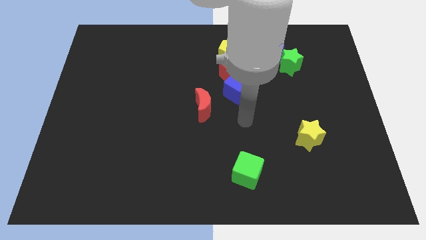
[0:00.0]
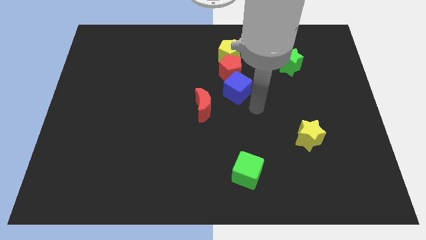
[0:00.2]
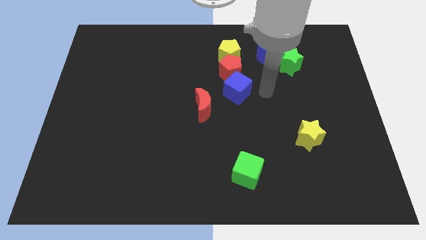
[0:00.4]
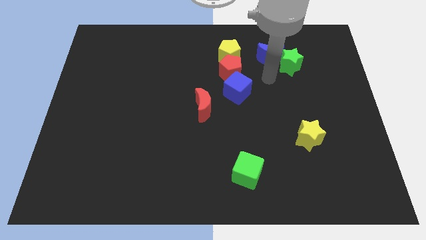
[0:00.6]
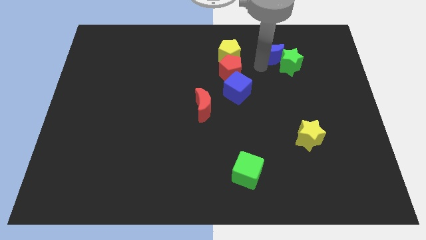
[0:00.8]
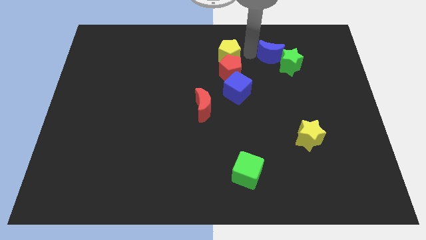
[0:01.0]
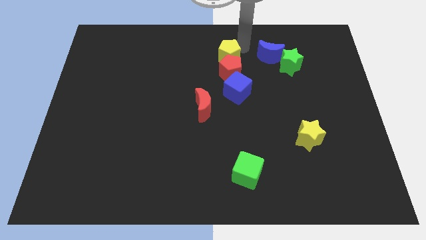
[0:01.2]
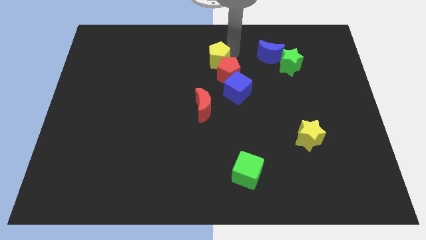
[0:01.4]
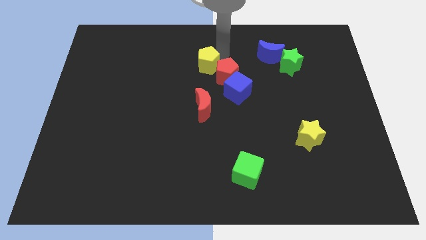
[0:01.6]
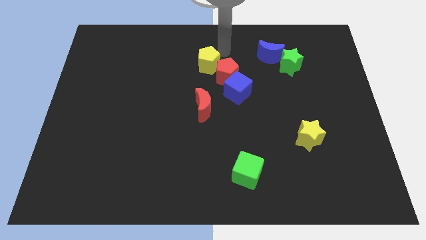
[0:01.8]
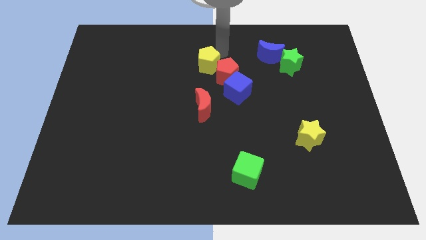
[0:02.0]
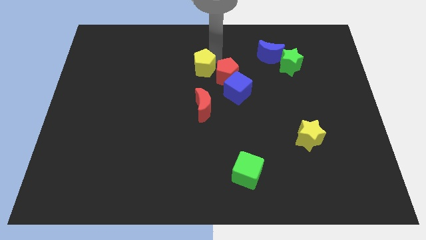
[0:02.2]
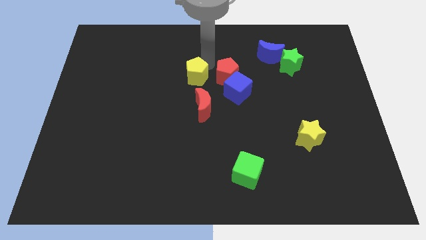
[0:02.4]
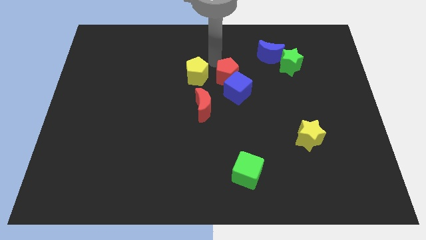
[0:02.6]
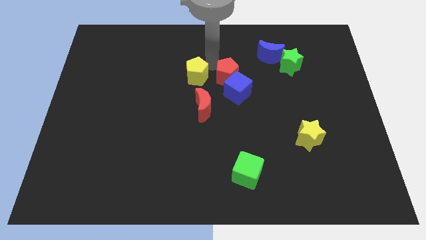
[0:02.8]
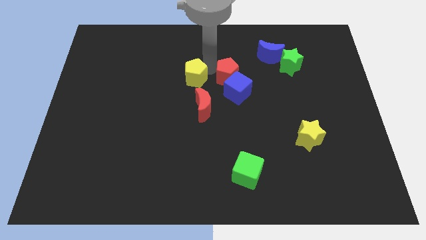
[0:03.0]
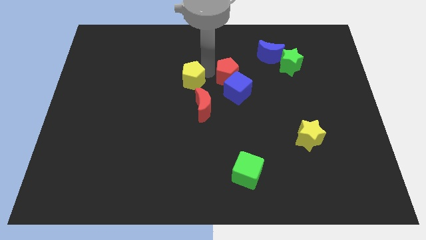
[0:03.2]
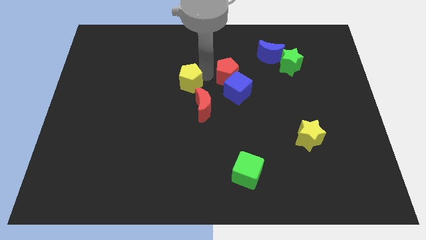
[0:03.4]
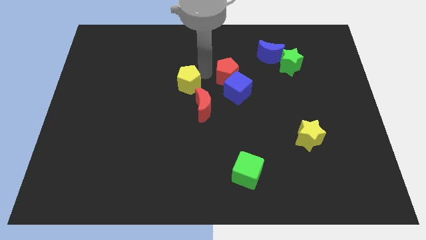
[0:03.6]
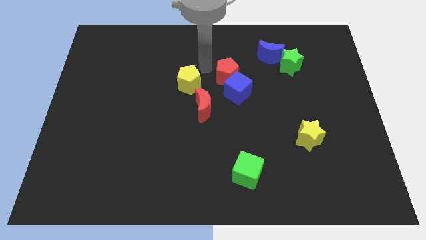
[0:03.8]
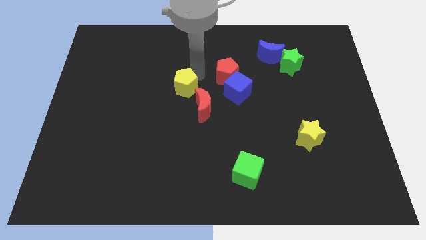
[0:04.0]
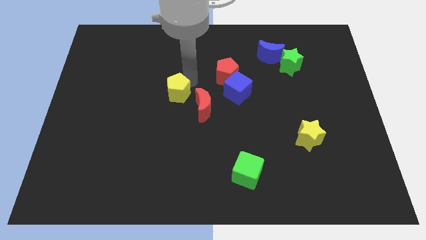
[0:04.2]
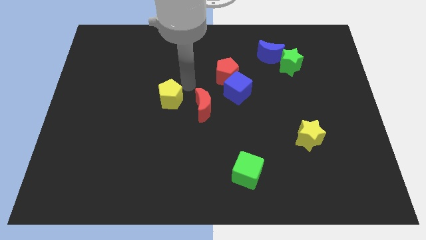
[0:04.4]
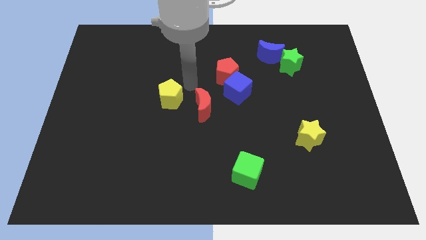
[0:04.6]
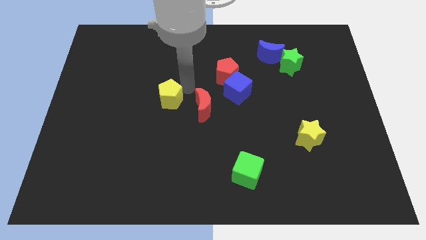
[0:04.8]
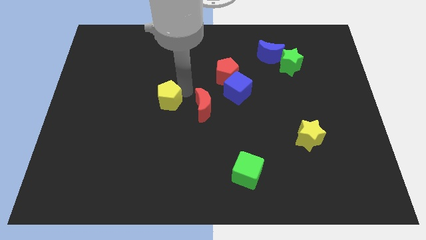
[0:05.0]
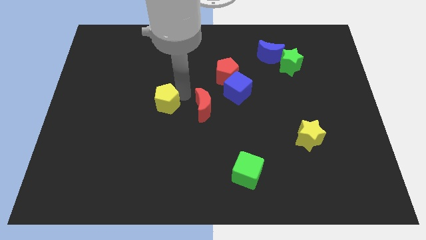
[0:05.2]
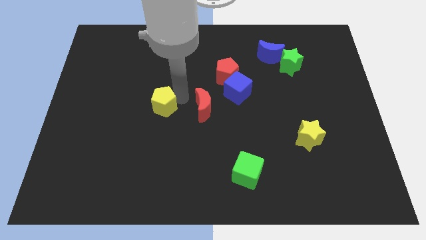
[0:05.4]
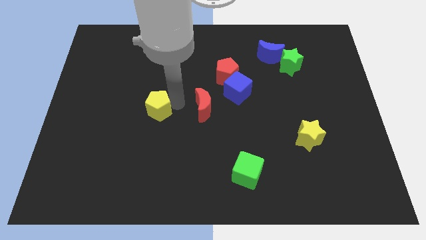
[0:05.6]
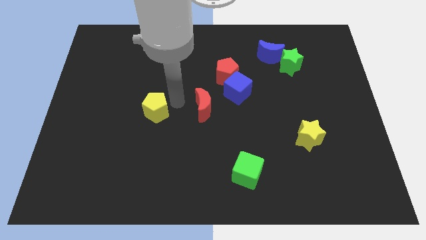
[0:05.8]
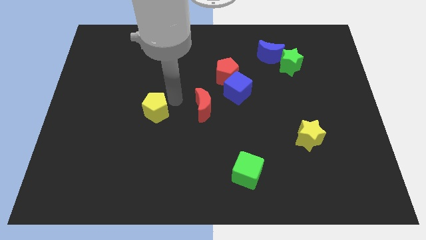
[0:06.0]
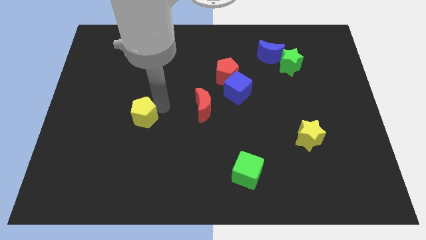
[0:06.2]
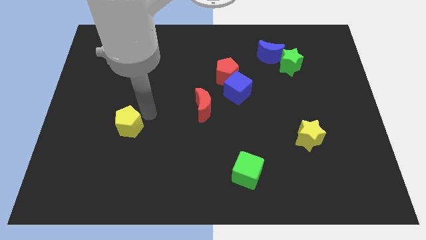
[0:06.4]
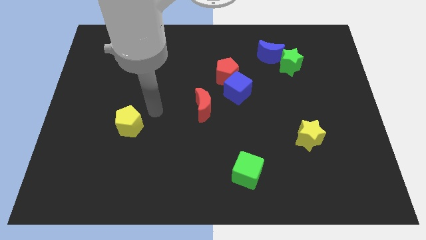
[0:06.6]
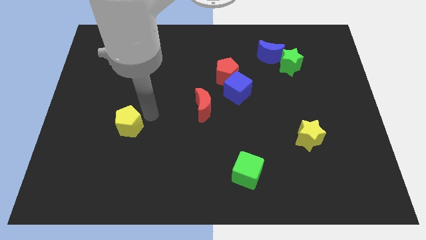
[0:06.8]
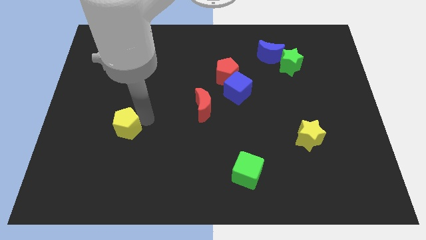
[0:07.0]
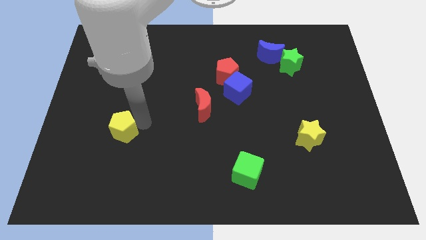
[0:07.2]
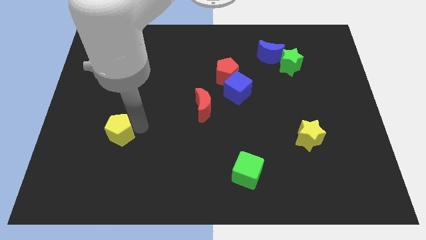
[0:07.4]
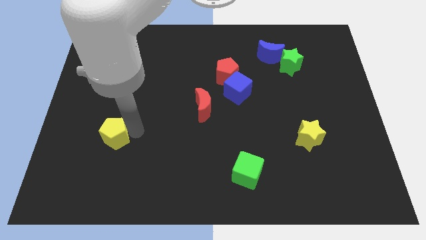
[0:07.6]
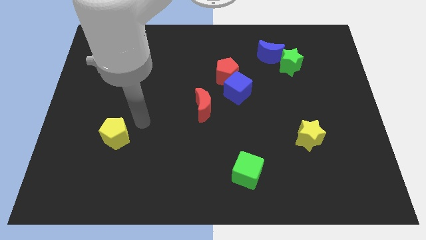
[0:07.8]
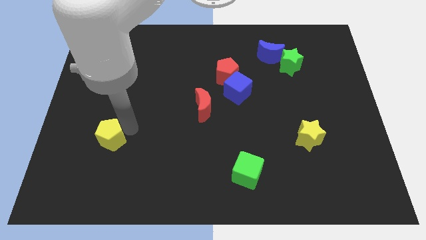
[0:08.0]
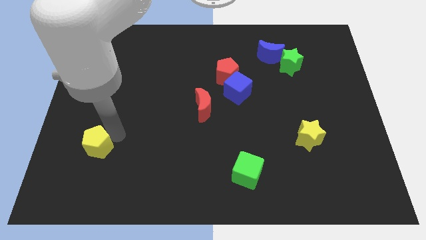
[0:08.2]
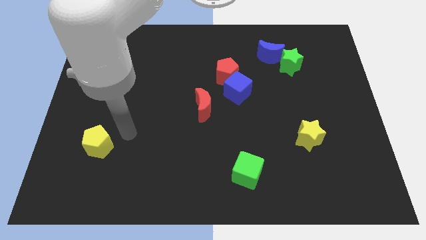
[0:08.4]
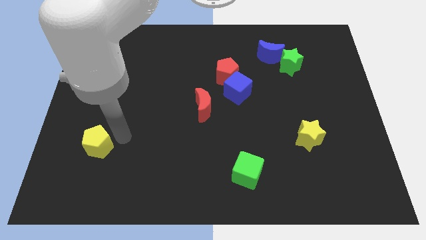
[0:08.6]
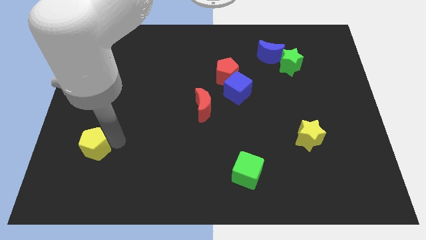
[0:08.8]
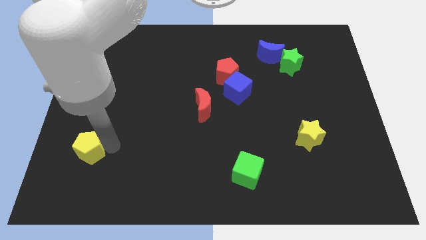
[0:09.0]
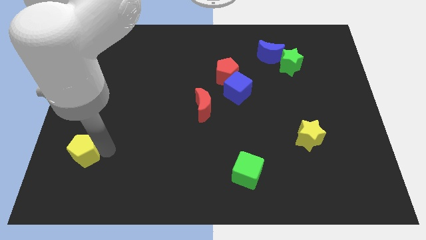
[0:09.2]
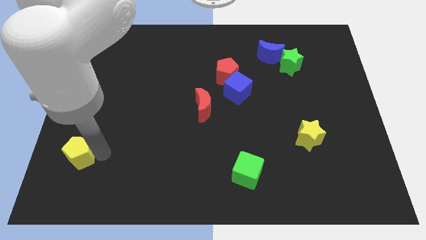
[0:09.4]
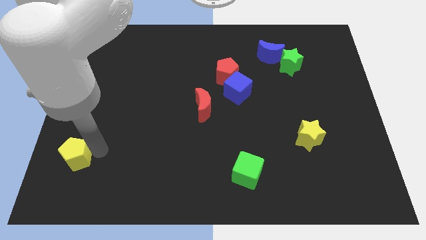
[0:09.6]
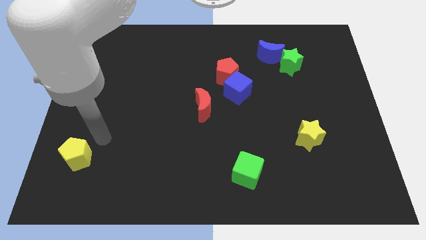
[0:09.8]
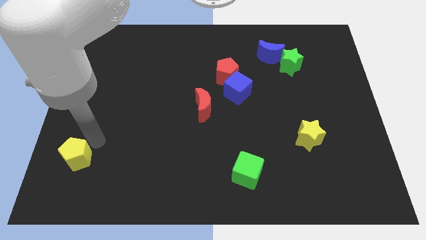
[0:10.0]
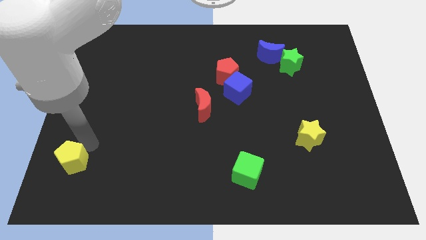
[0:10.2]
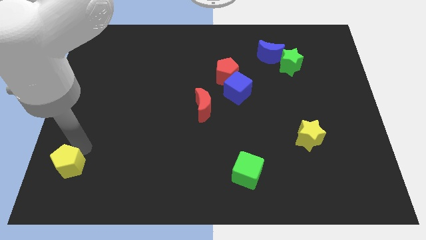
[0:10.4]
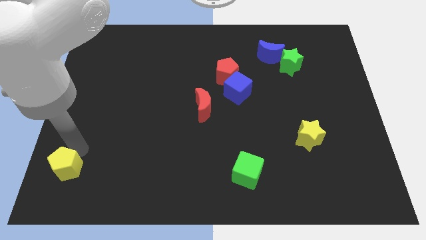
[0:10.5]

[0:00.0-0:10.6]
push the yellow pentagon to the bottom left

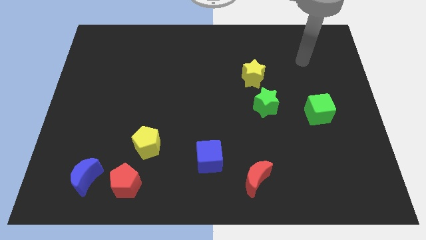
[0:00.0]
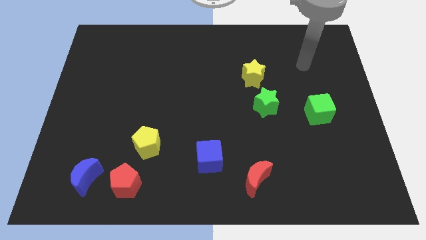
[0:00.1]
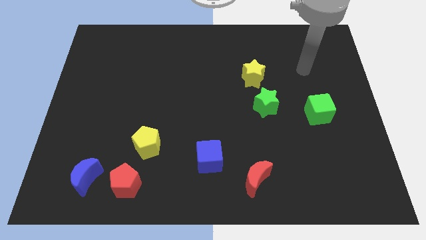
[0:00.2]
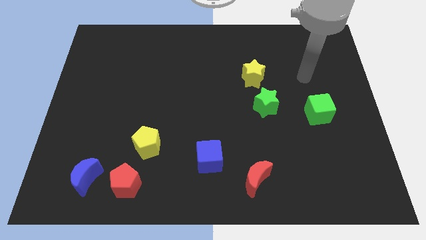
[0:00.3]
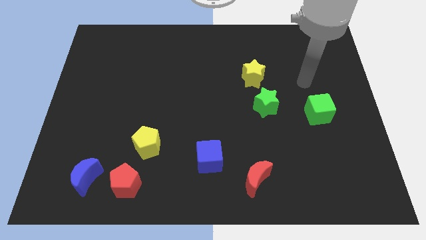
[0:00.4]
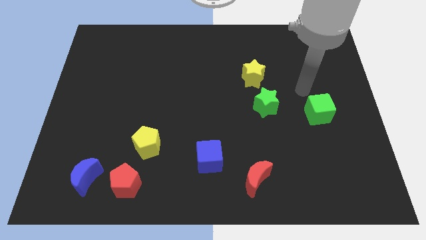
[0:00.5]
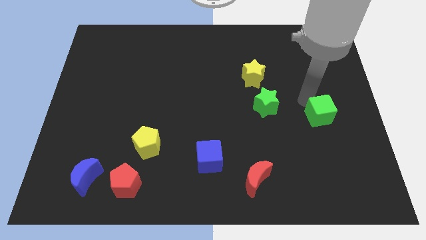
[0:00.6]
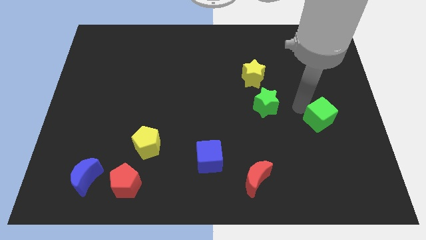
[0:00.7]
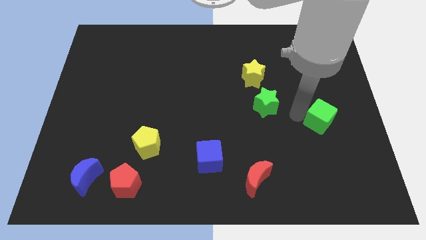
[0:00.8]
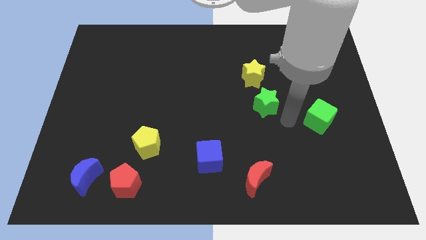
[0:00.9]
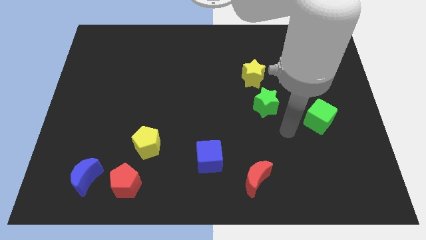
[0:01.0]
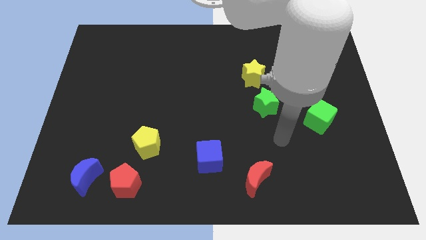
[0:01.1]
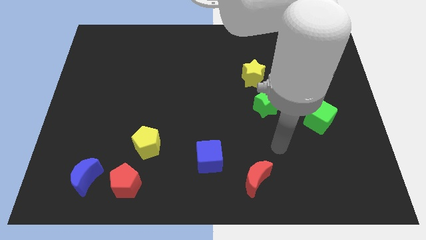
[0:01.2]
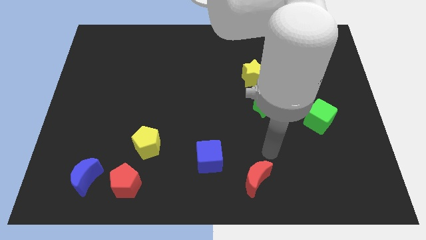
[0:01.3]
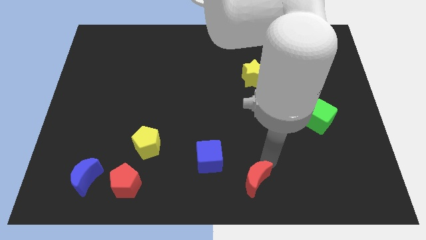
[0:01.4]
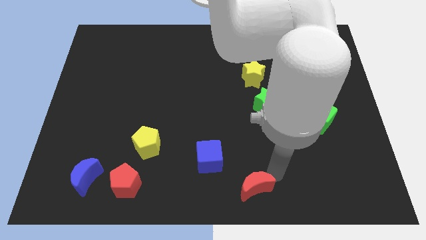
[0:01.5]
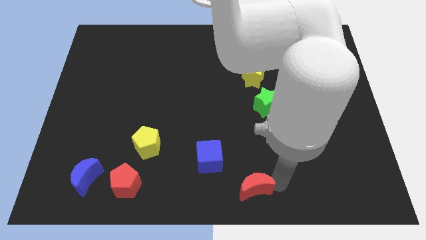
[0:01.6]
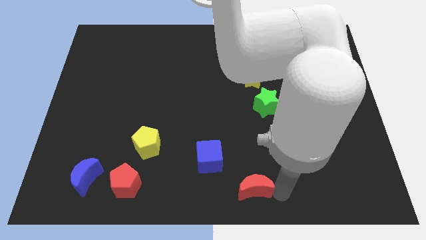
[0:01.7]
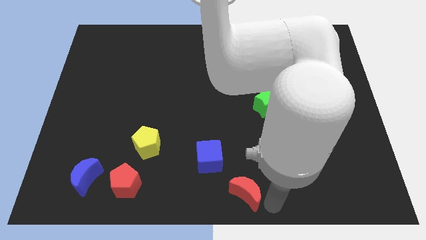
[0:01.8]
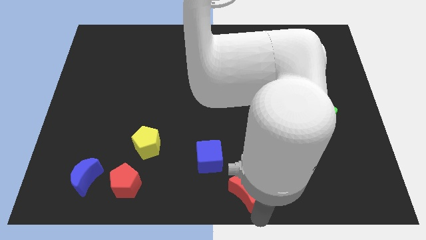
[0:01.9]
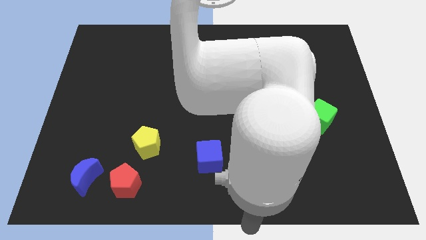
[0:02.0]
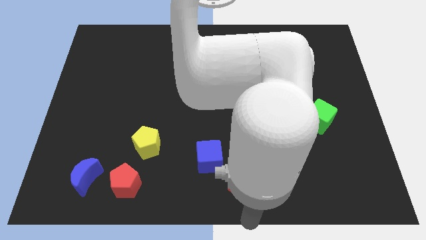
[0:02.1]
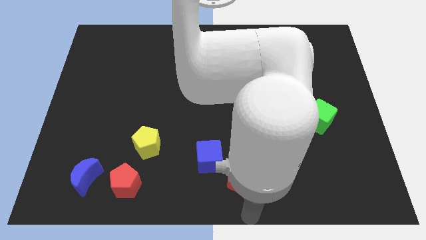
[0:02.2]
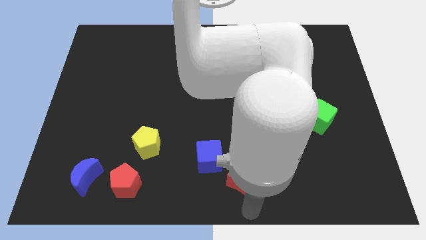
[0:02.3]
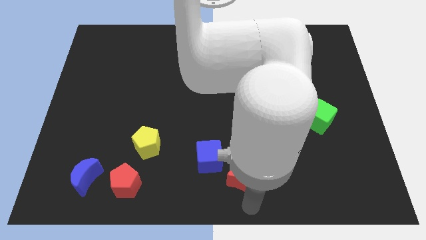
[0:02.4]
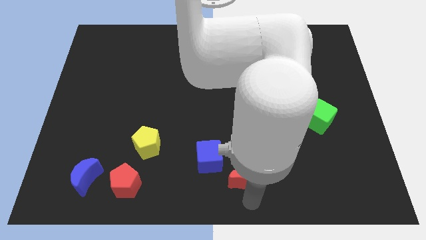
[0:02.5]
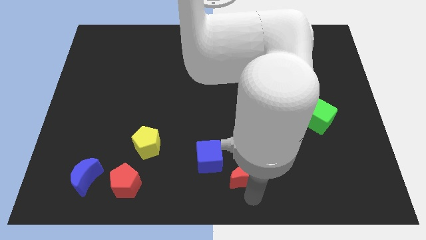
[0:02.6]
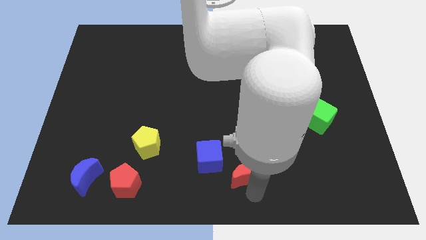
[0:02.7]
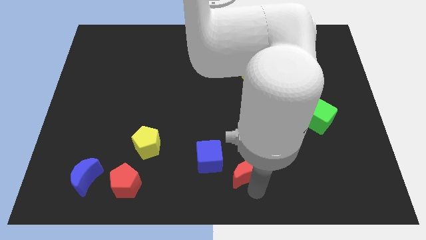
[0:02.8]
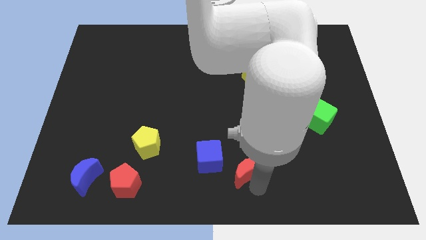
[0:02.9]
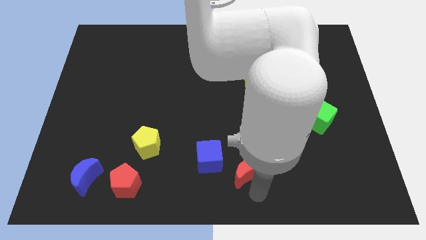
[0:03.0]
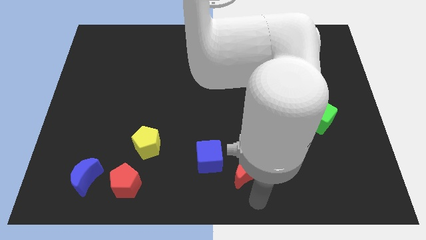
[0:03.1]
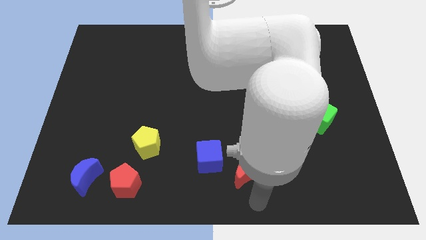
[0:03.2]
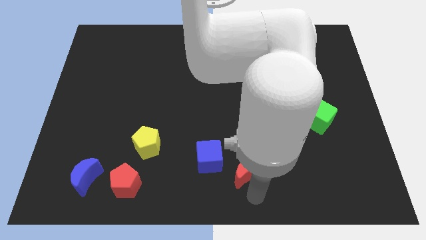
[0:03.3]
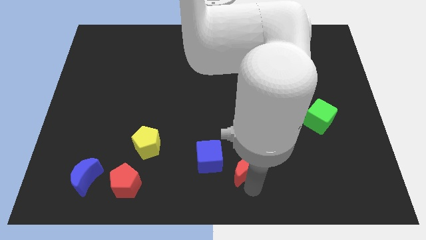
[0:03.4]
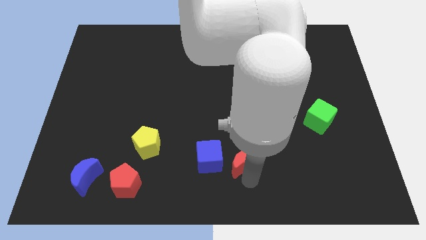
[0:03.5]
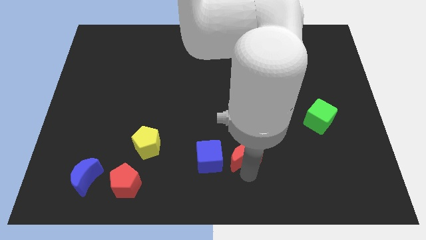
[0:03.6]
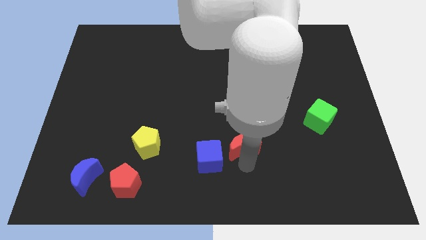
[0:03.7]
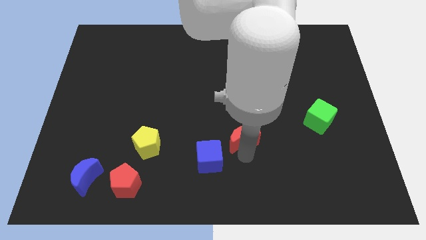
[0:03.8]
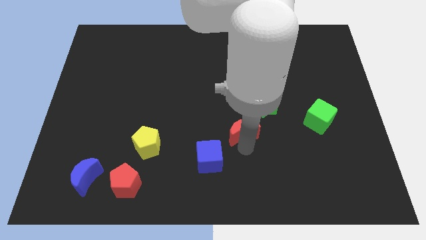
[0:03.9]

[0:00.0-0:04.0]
slide the red moon to the center
